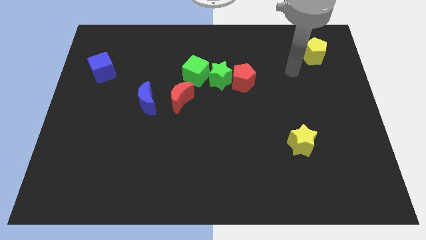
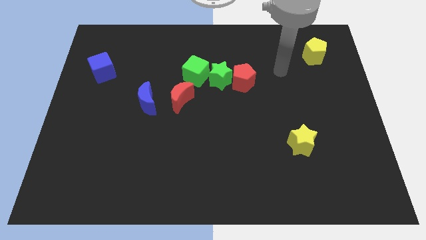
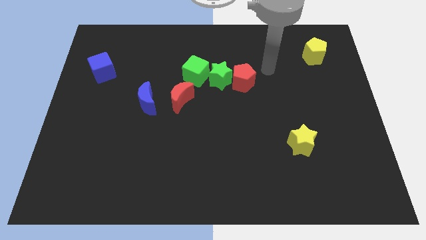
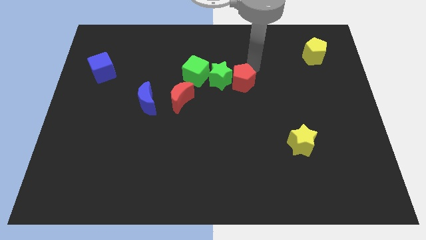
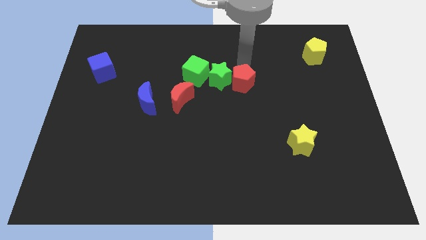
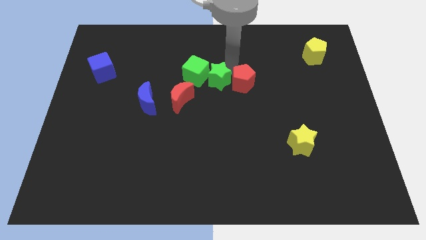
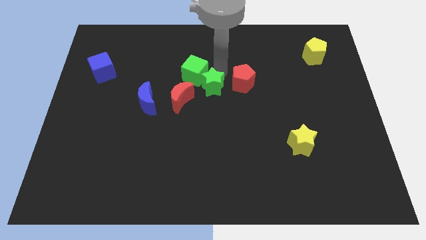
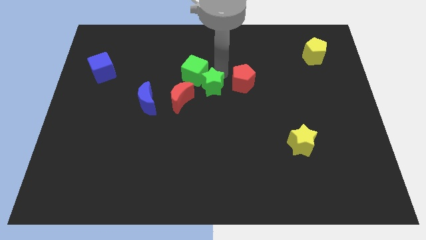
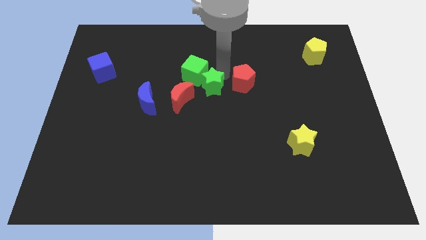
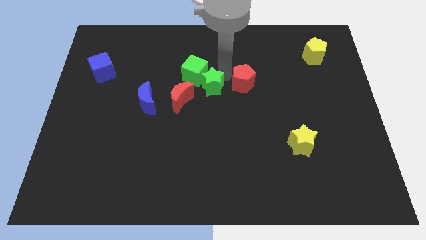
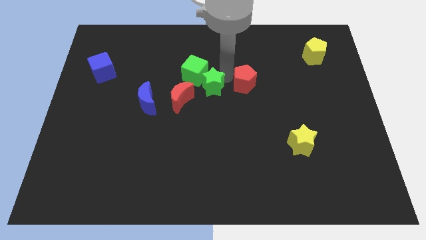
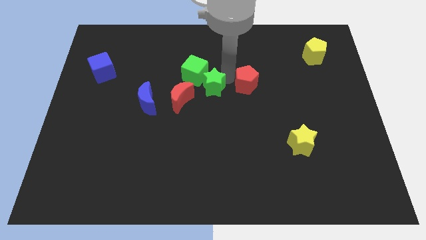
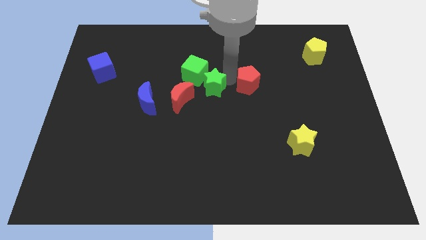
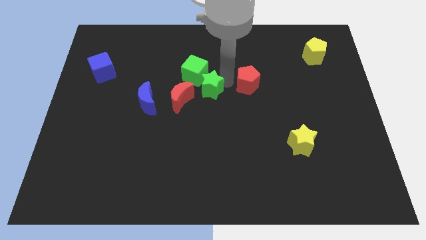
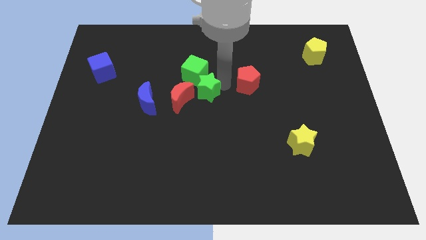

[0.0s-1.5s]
pull the red pentagon apart from the green star

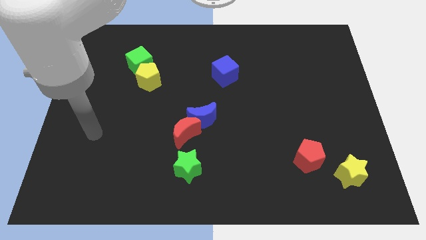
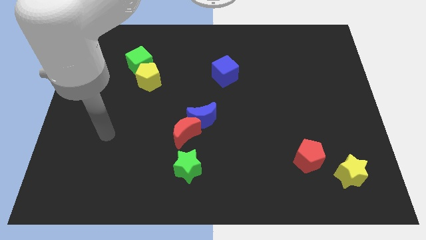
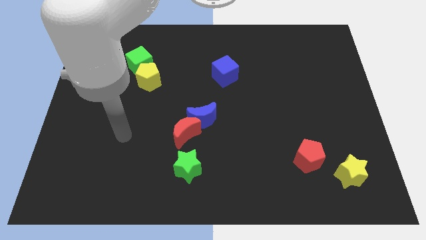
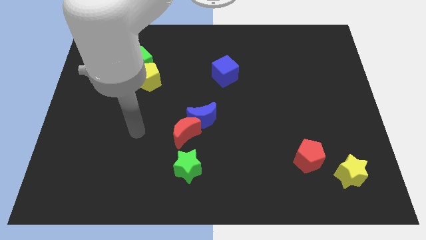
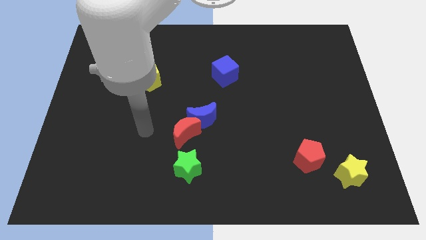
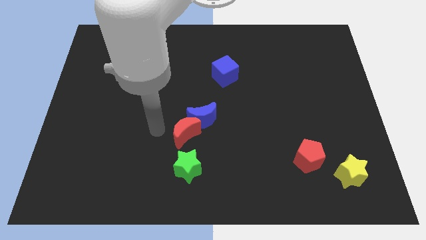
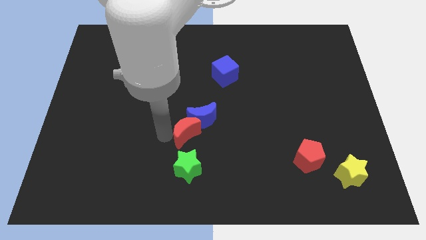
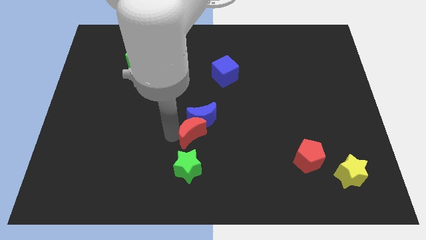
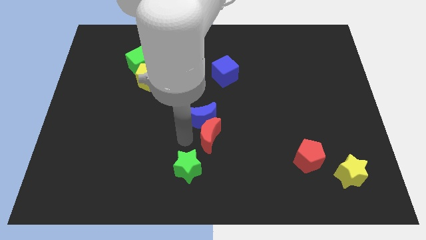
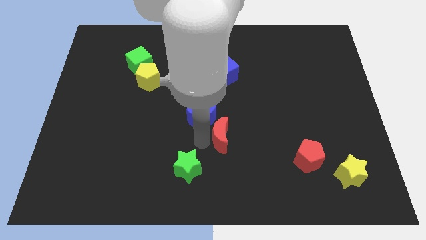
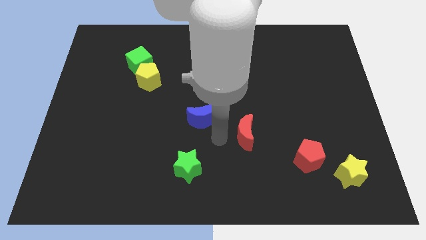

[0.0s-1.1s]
move the blue moon away from the red moon

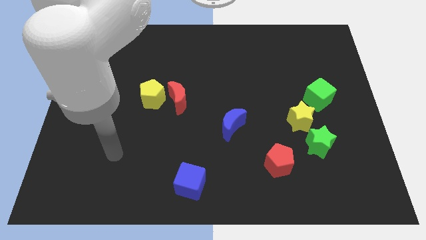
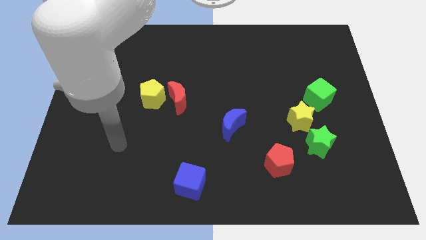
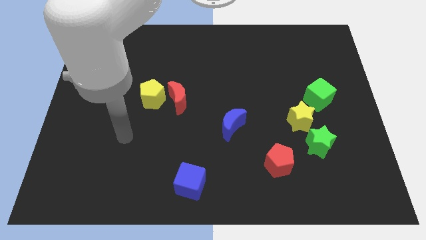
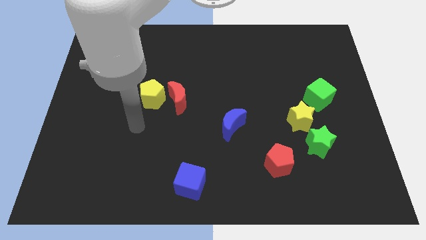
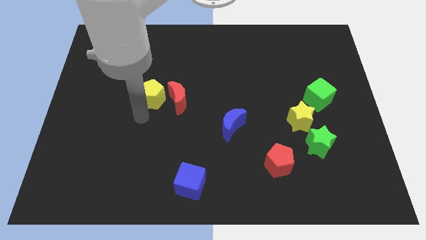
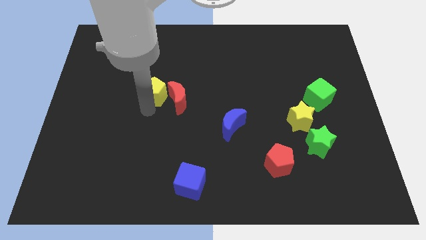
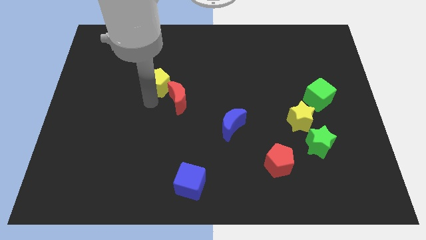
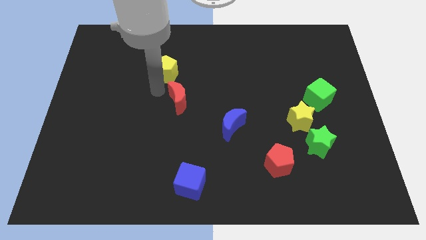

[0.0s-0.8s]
pull the red moon apart from the yellow pentagon

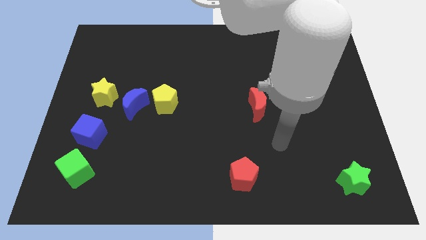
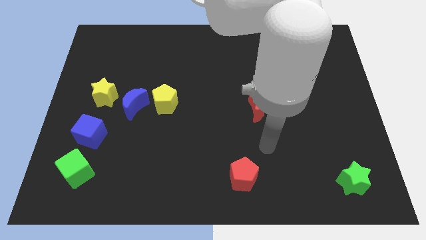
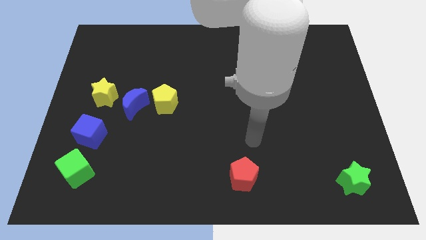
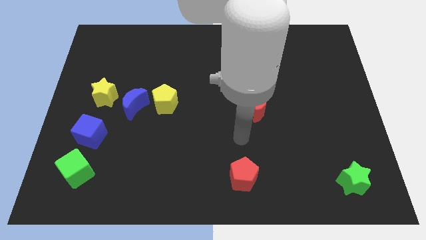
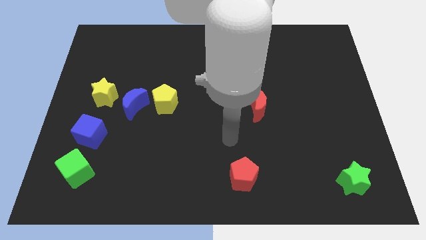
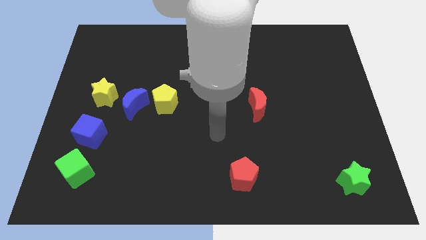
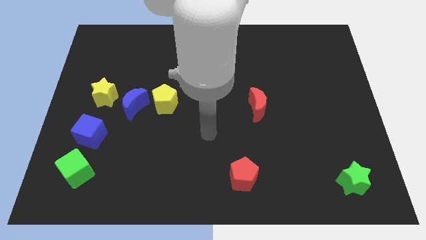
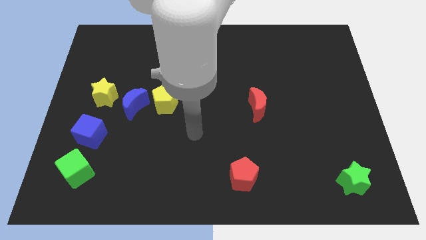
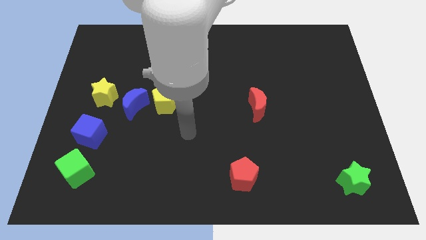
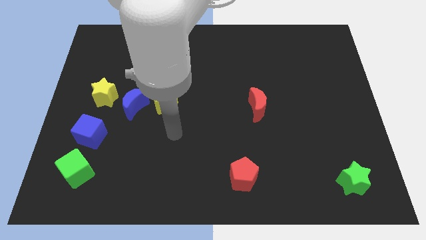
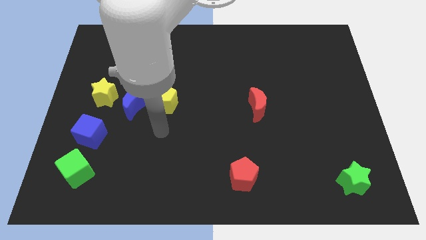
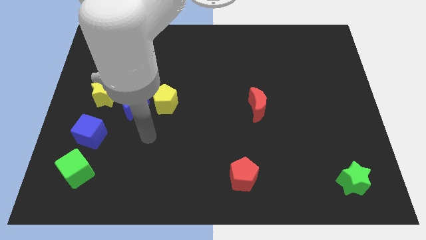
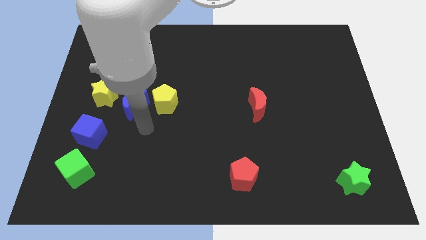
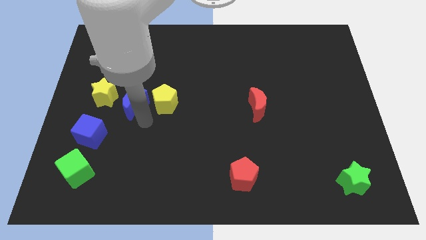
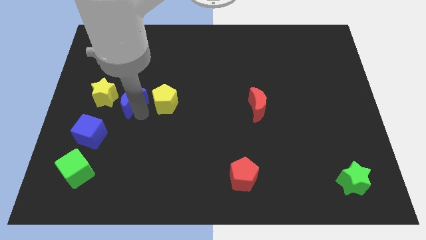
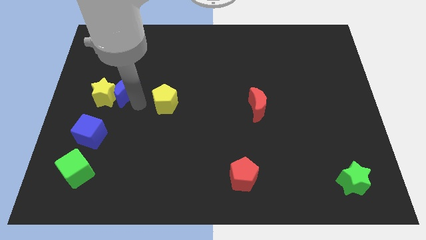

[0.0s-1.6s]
move the yellow pentagon away from the blue moon

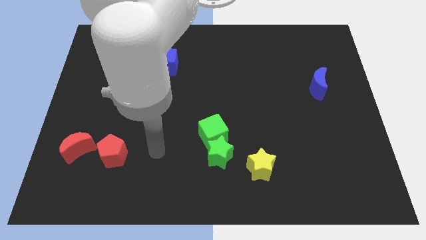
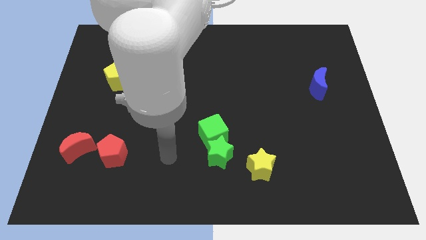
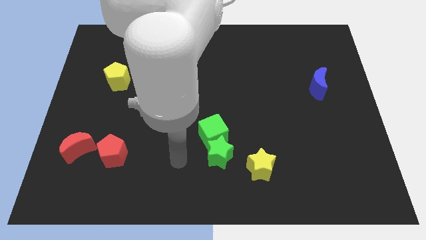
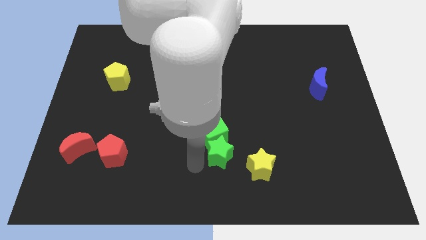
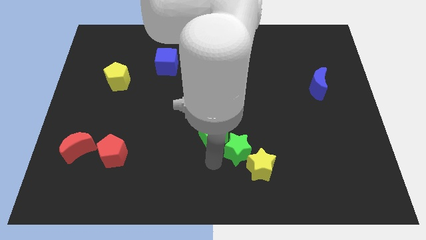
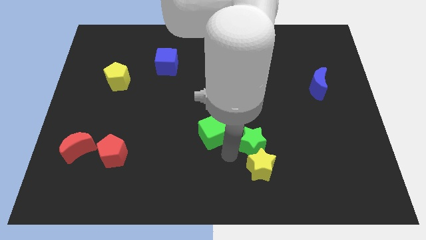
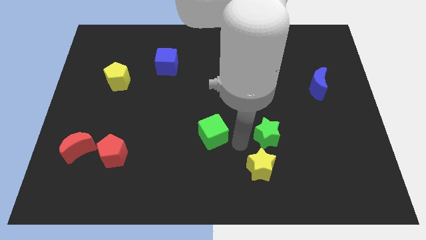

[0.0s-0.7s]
separate the green cube from the green star

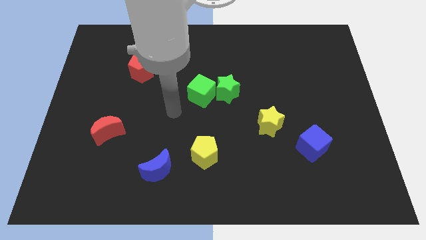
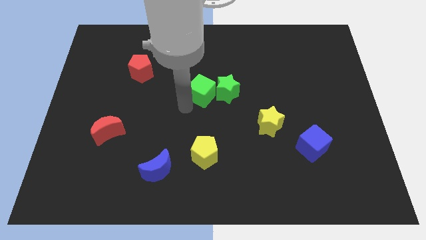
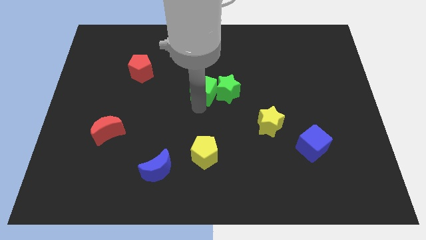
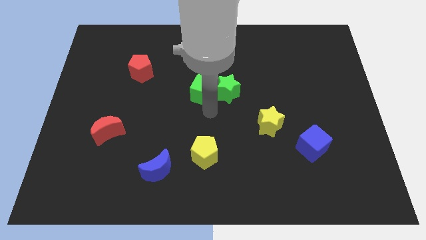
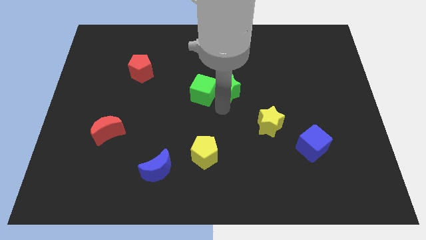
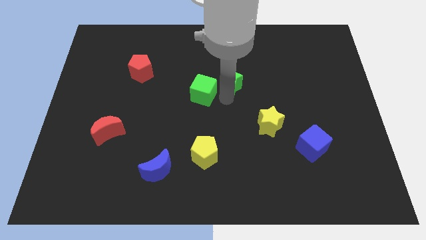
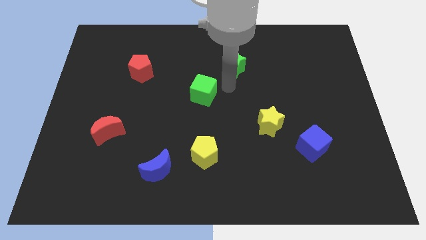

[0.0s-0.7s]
move the green cube away from the green star

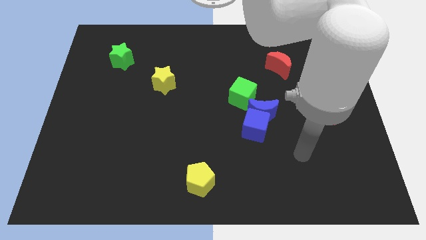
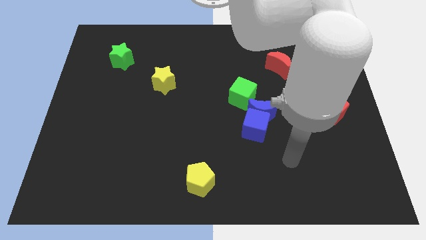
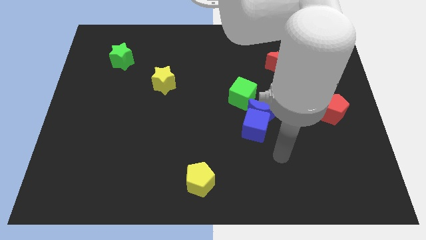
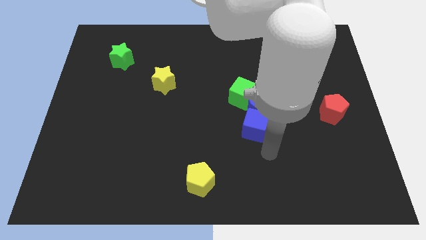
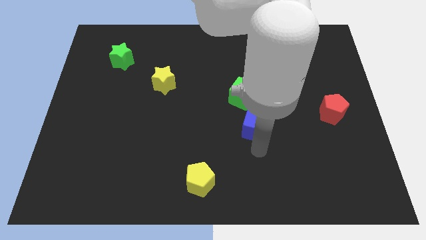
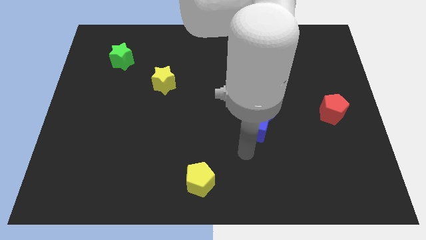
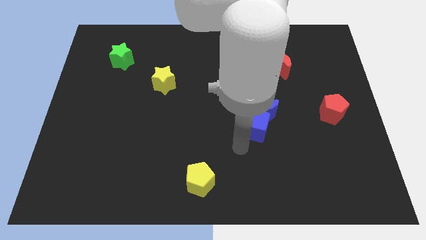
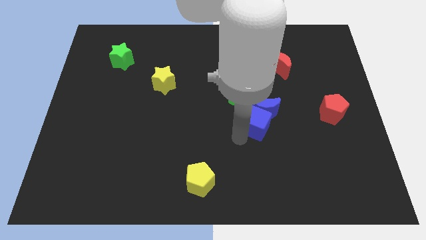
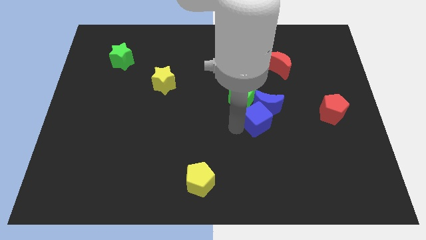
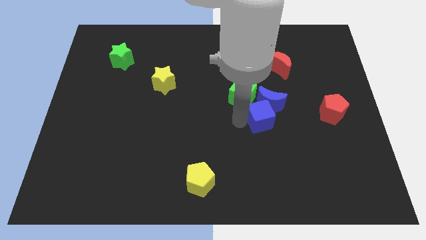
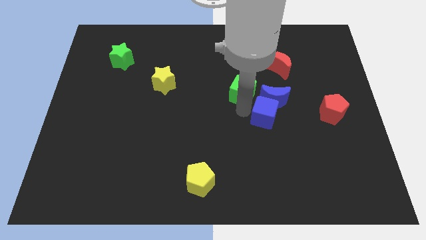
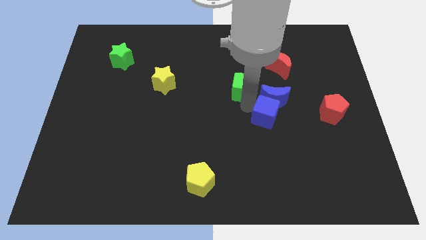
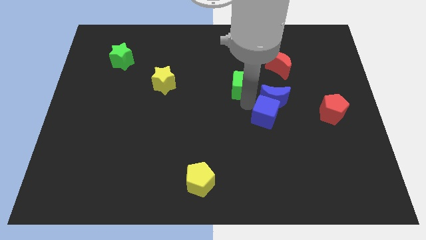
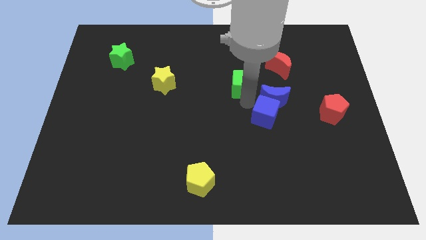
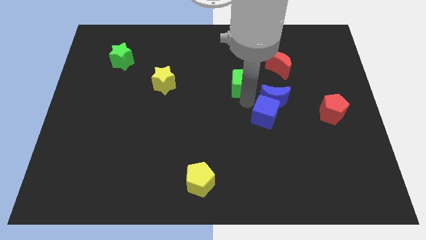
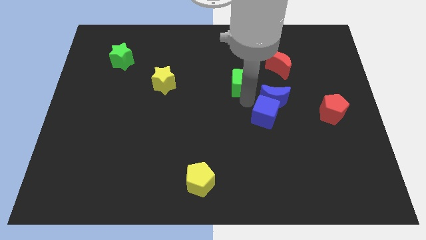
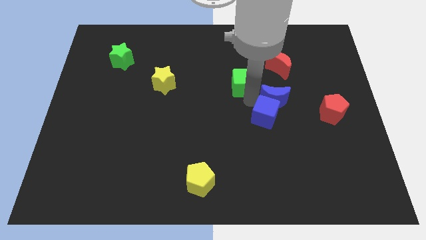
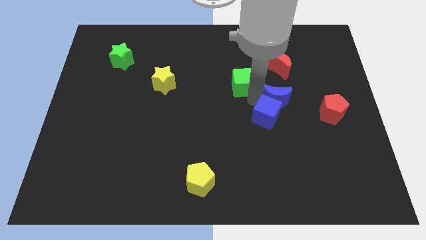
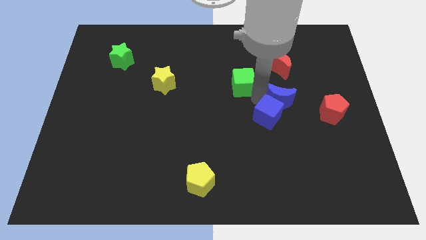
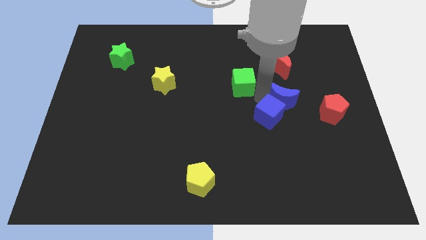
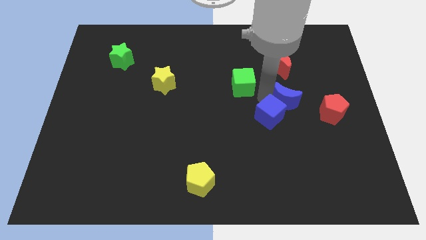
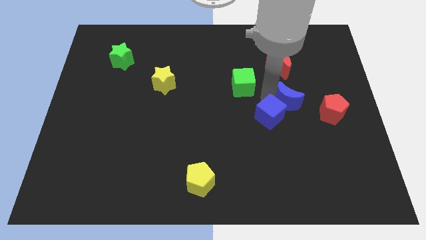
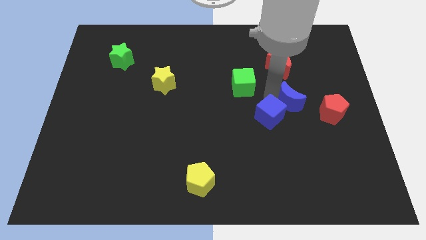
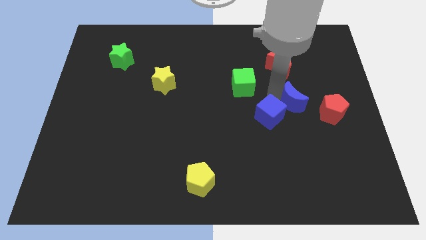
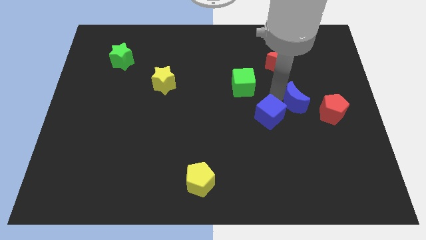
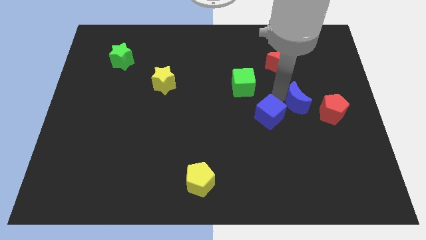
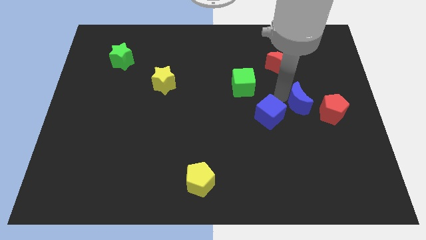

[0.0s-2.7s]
pull the blue moon apart from the blue cube and green cube
